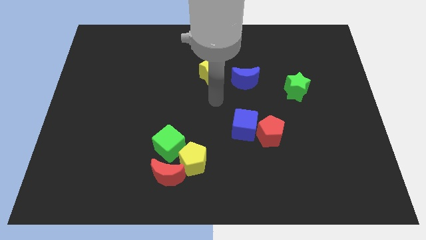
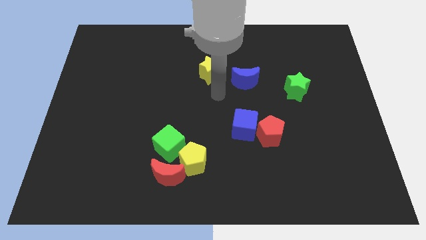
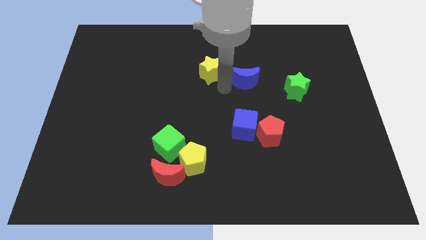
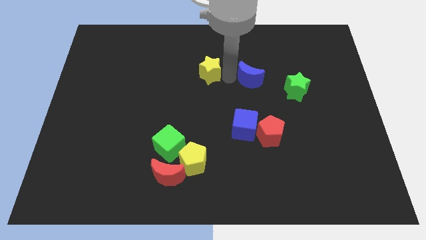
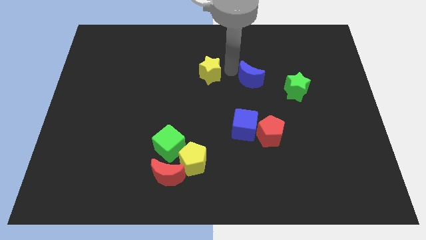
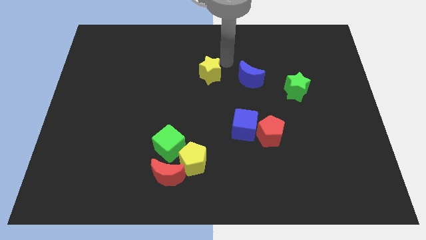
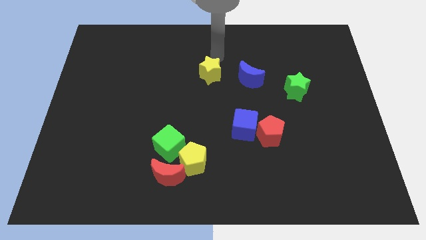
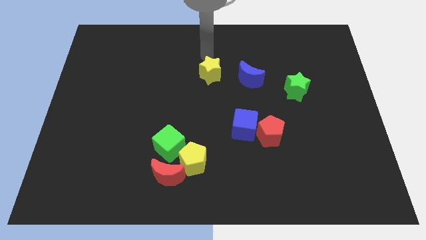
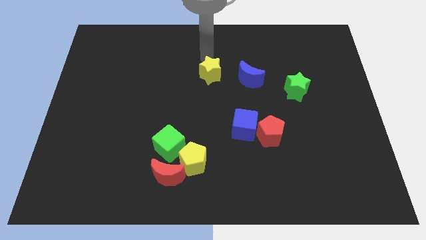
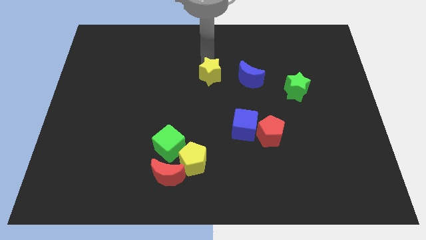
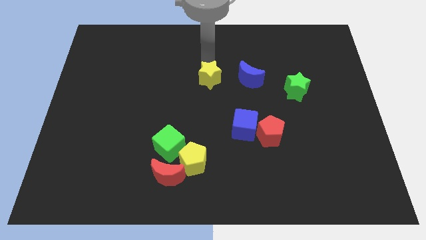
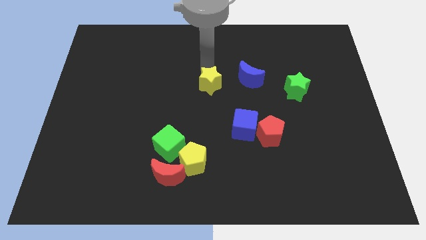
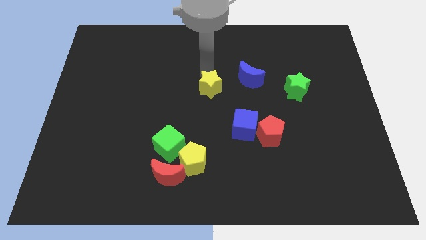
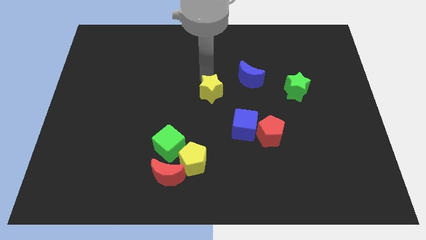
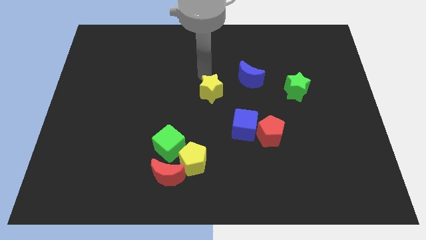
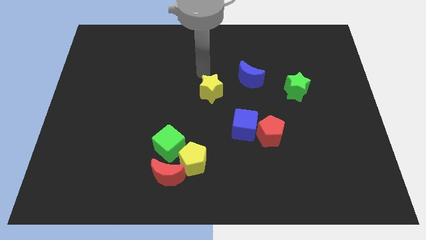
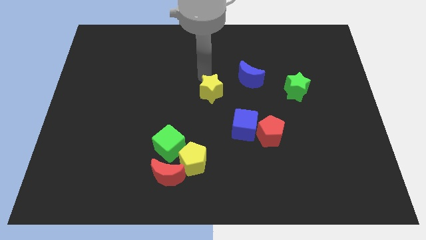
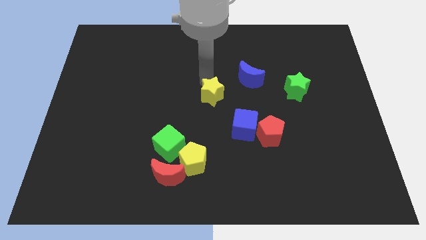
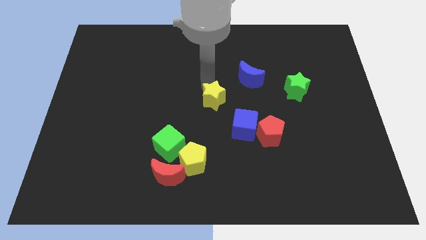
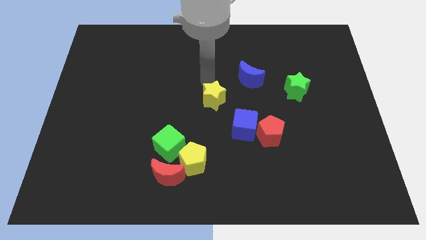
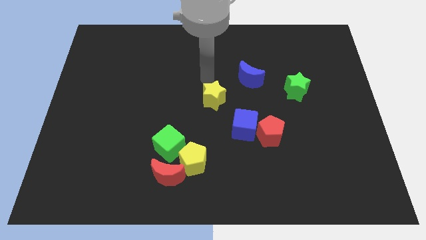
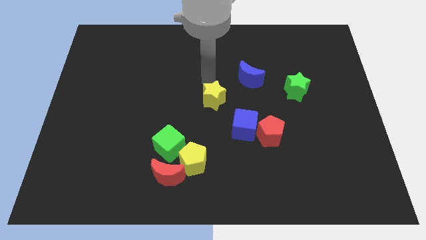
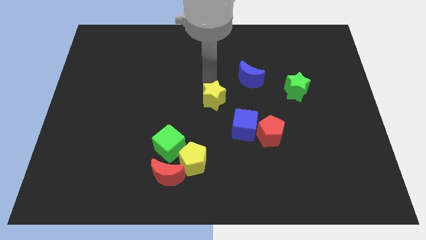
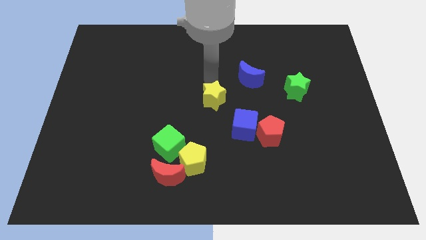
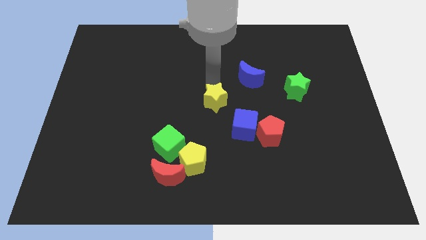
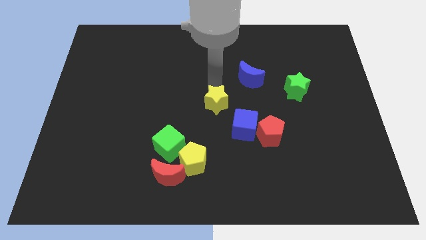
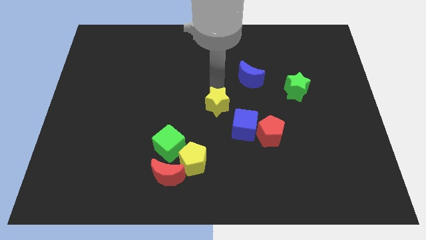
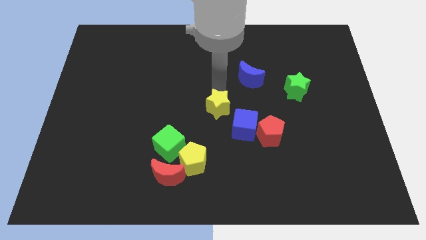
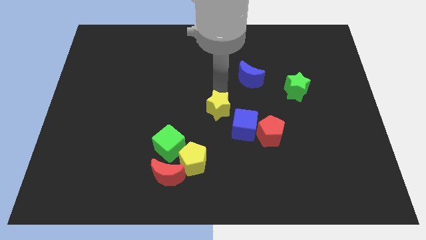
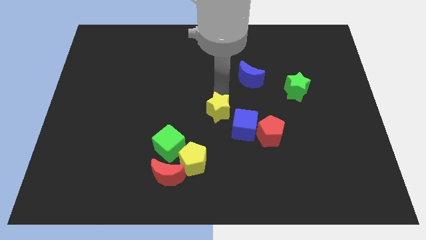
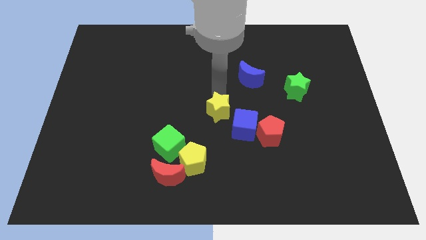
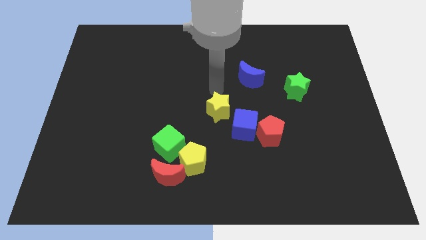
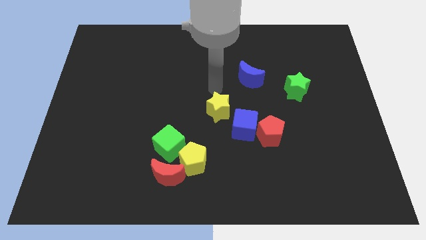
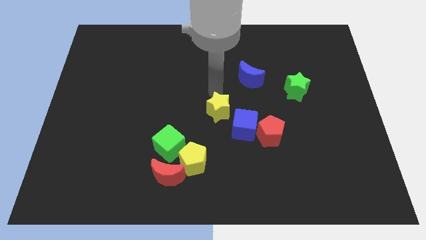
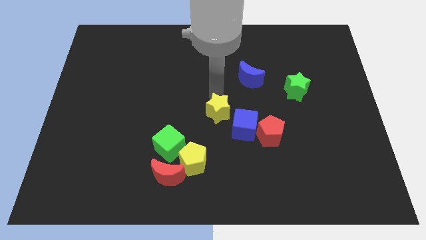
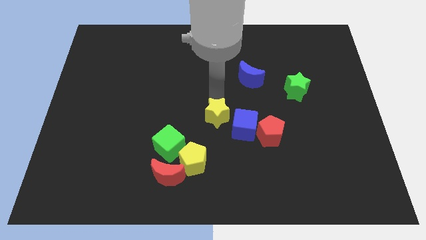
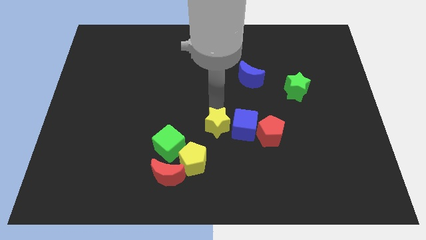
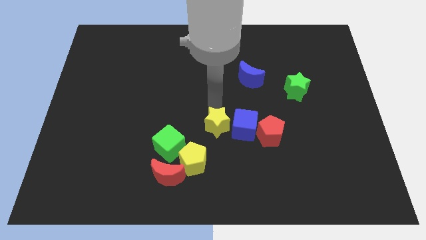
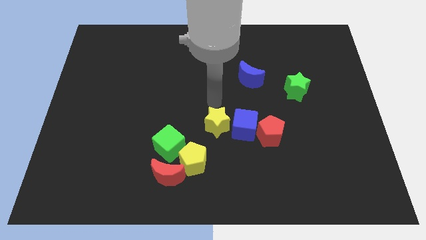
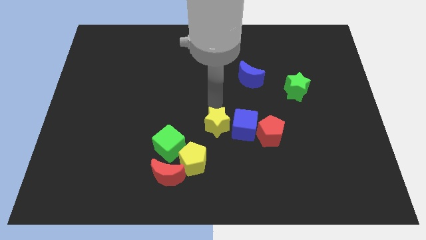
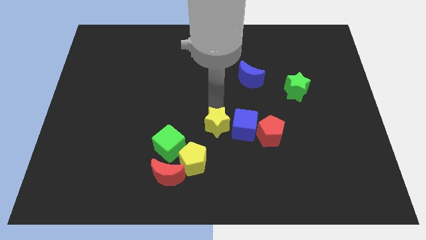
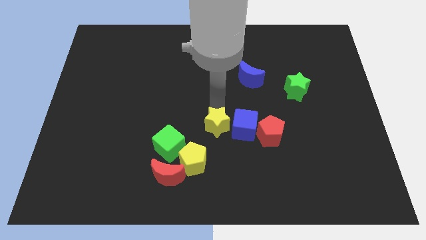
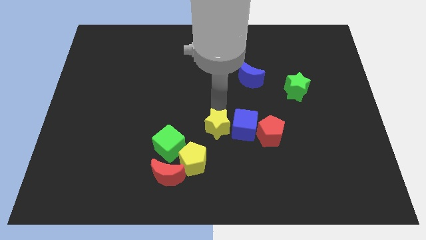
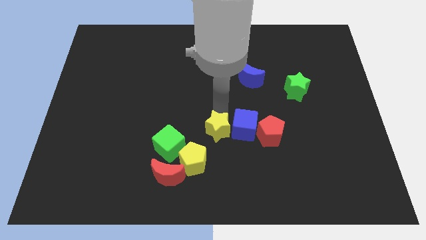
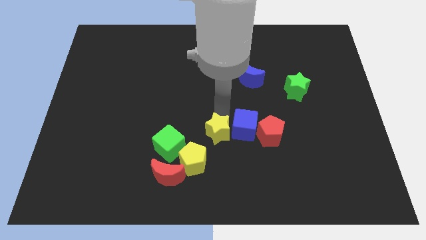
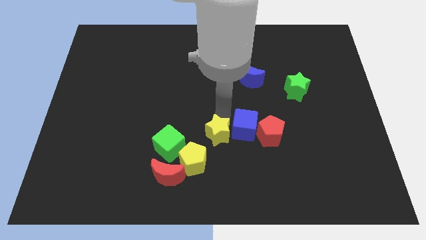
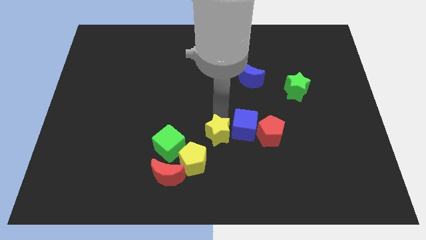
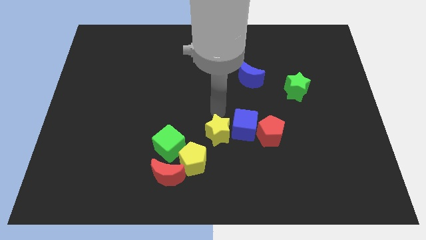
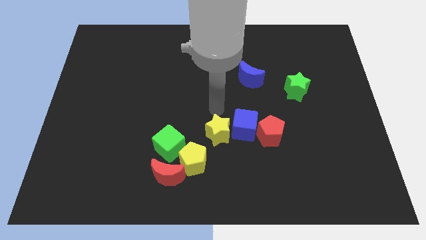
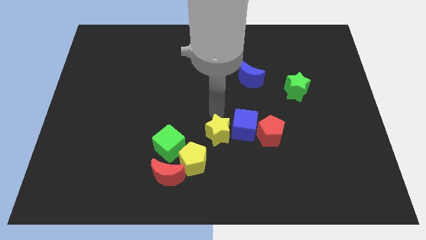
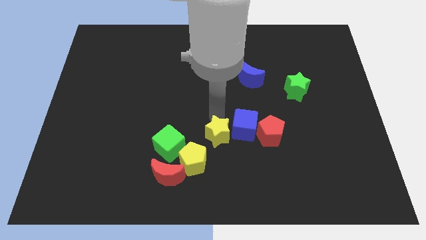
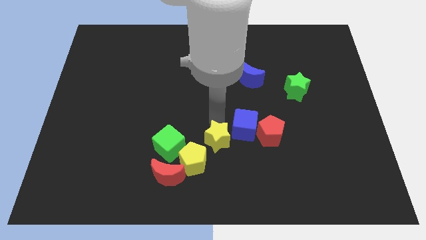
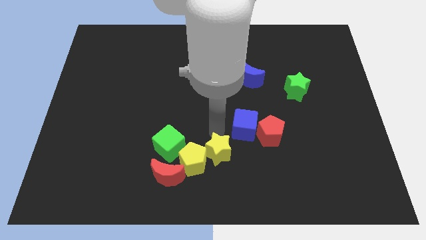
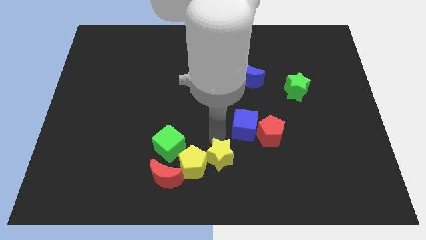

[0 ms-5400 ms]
move the yellow star to the bottom side

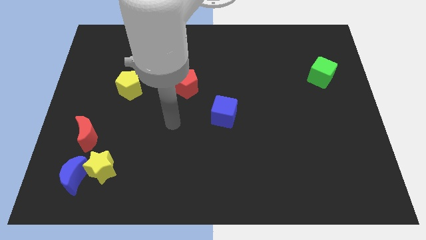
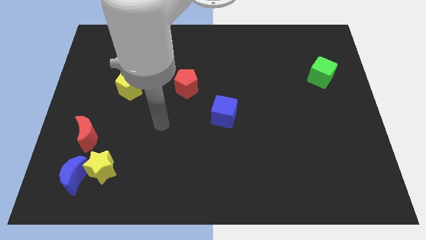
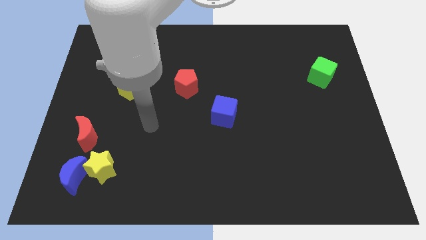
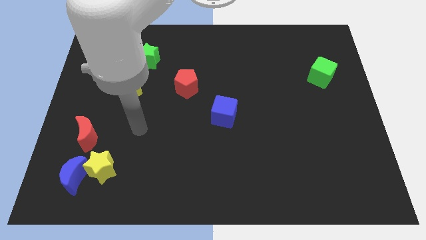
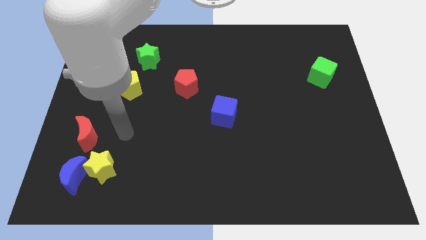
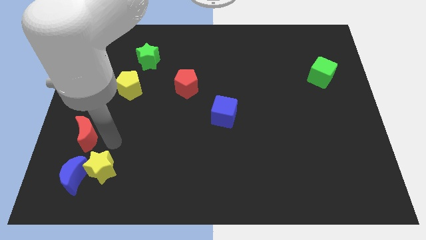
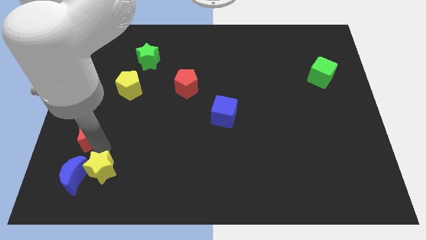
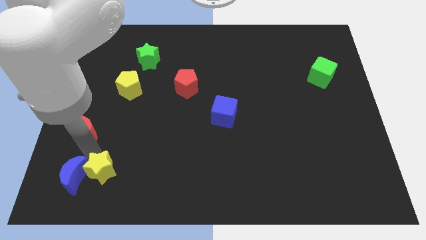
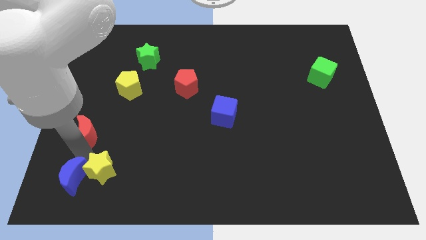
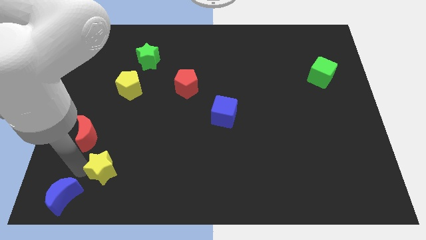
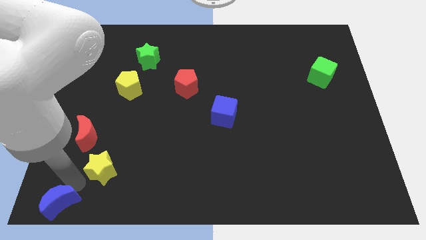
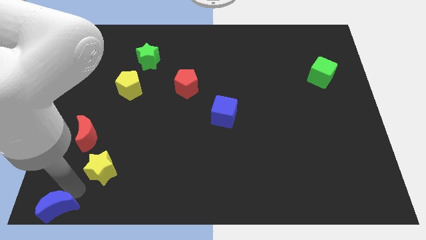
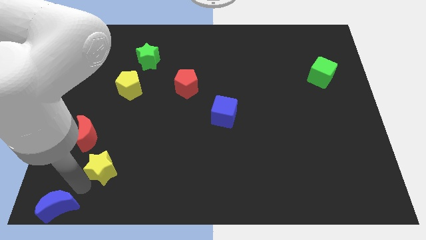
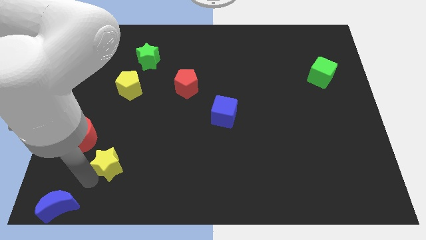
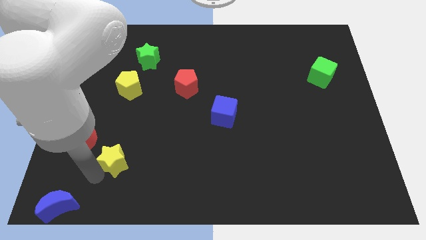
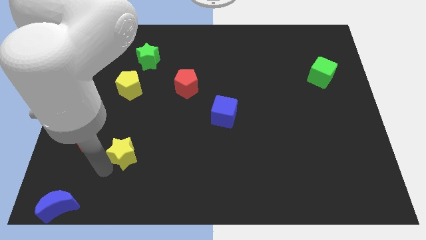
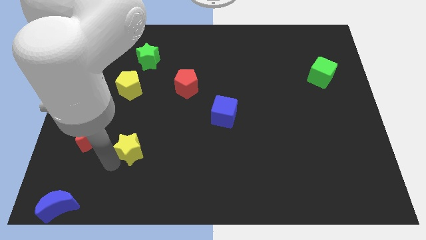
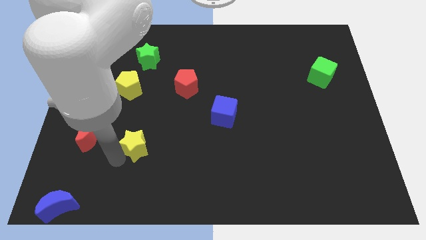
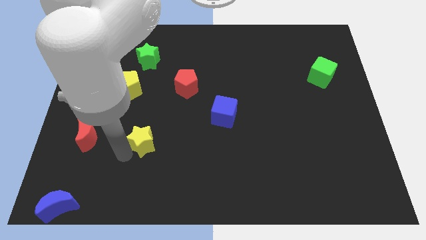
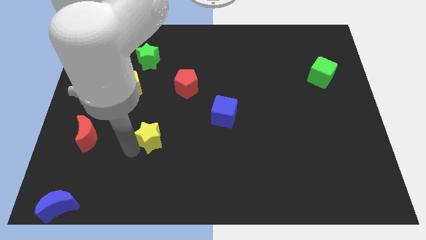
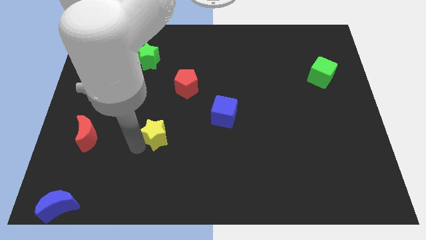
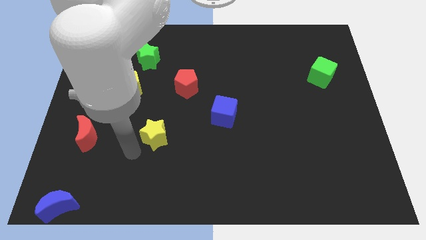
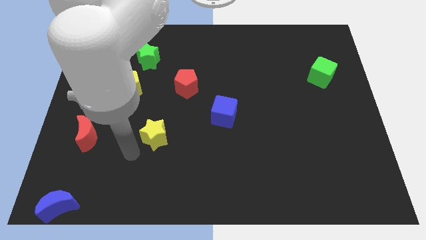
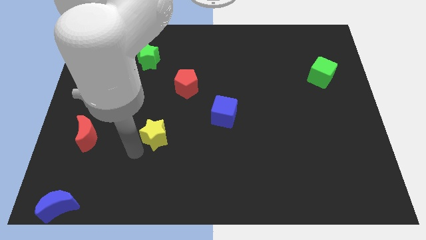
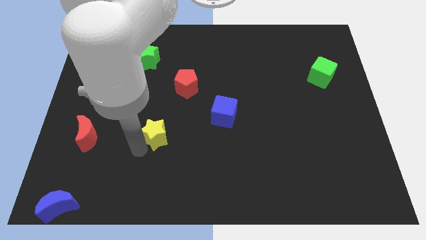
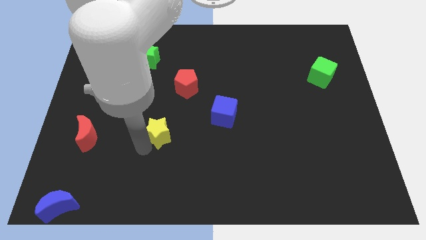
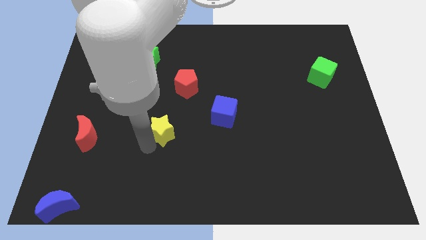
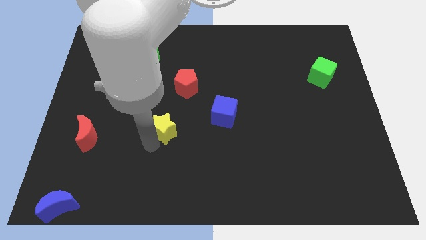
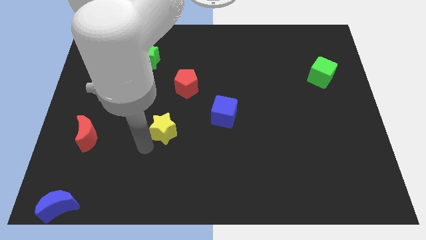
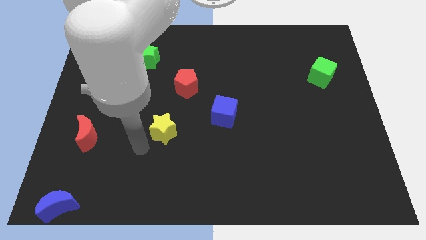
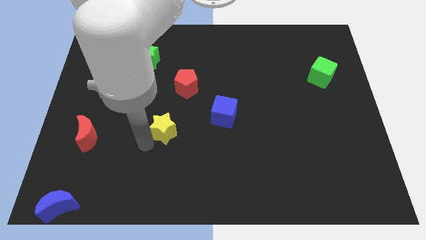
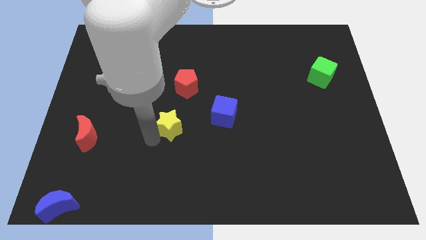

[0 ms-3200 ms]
move the yellow star to the center of the board
